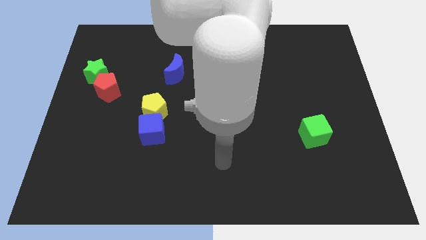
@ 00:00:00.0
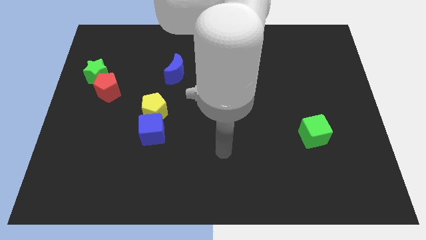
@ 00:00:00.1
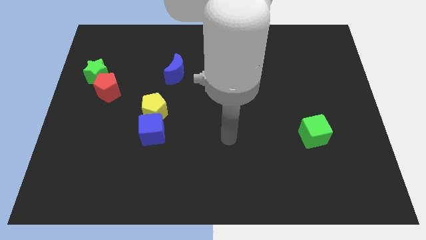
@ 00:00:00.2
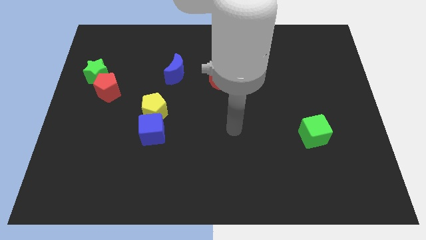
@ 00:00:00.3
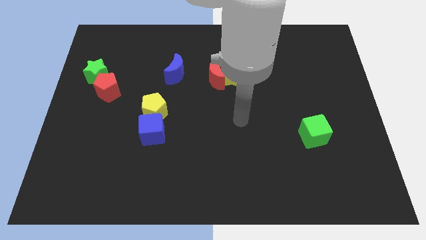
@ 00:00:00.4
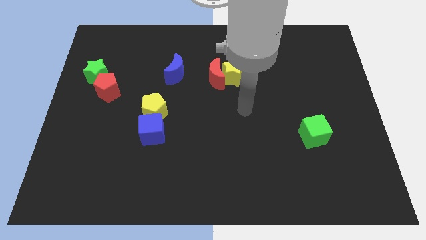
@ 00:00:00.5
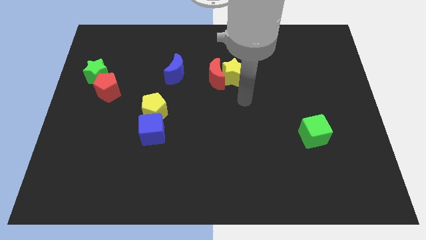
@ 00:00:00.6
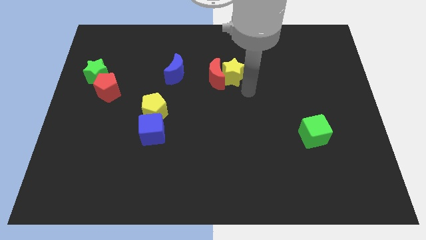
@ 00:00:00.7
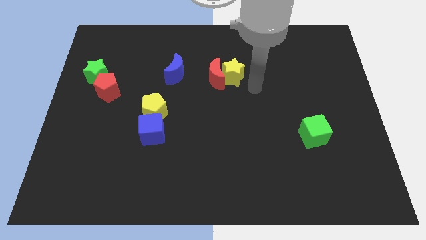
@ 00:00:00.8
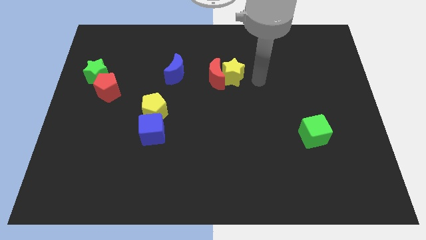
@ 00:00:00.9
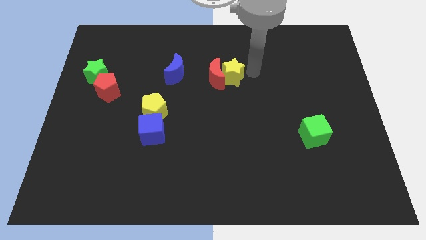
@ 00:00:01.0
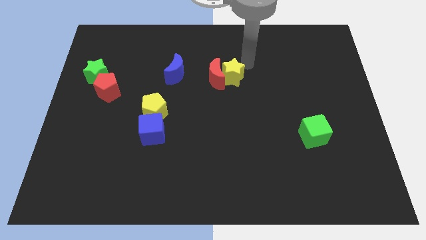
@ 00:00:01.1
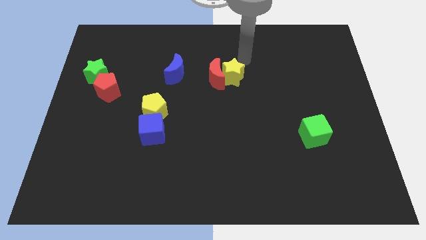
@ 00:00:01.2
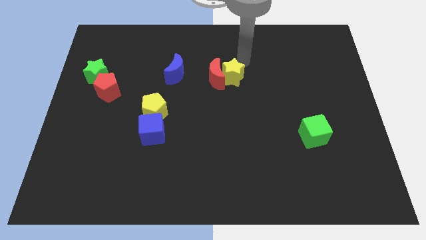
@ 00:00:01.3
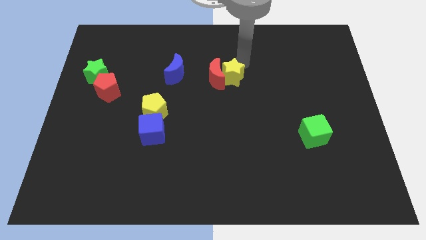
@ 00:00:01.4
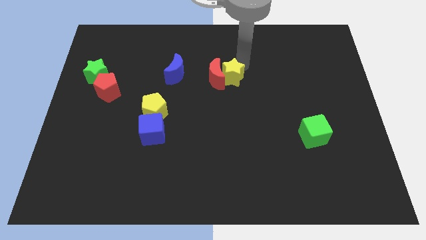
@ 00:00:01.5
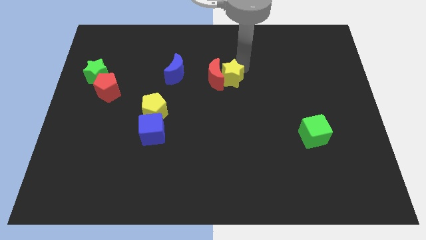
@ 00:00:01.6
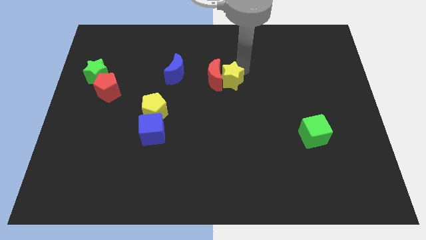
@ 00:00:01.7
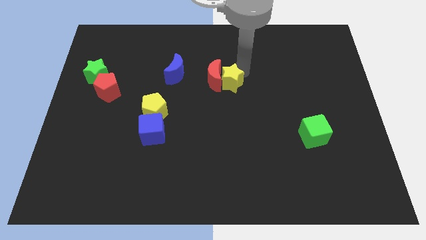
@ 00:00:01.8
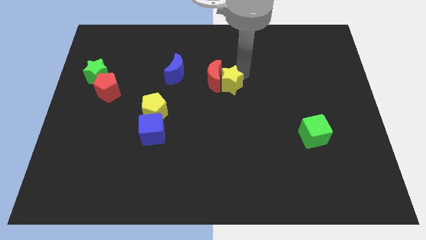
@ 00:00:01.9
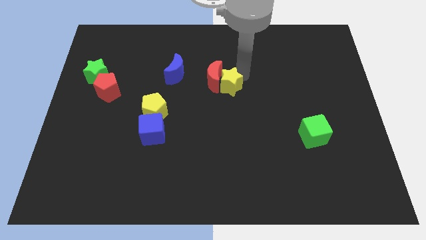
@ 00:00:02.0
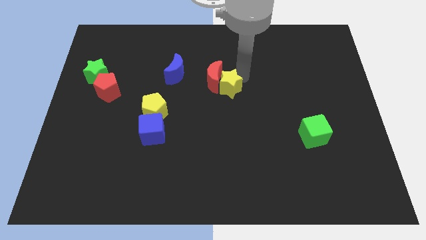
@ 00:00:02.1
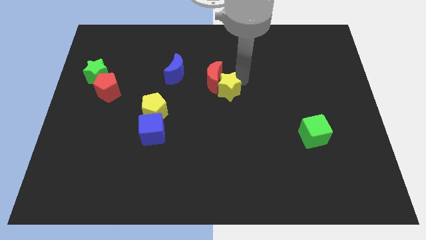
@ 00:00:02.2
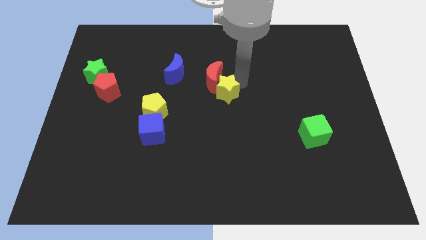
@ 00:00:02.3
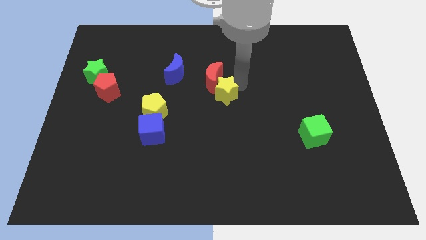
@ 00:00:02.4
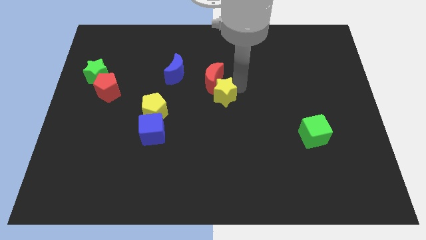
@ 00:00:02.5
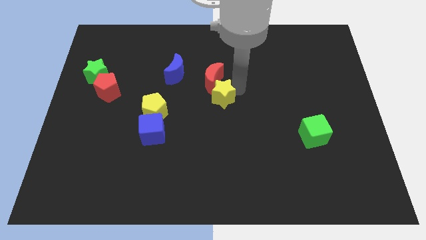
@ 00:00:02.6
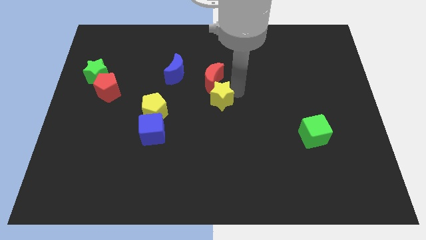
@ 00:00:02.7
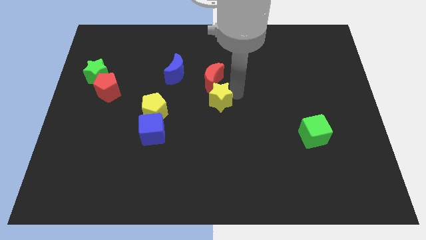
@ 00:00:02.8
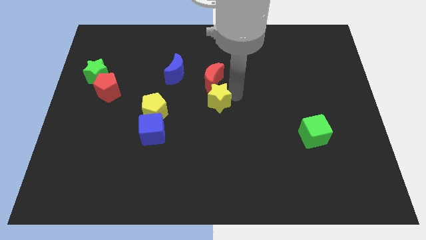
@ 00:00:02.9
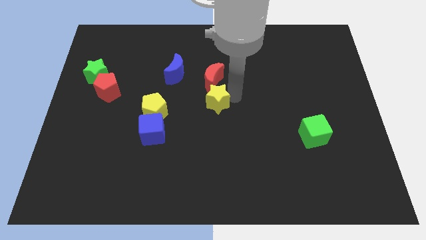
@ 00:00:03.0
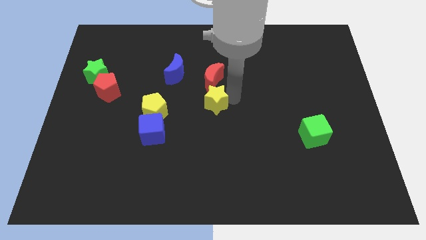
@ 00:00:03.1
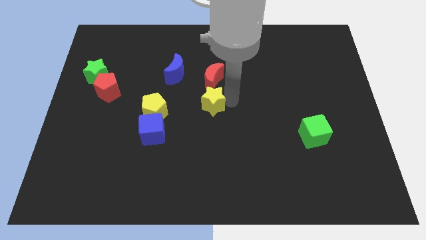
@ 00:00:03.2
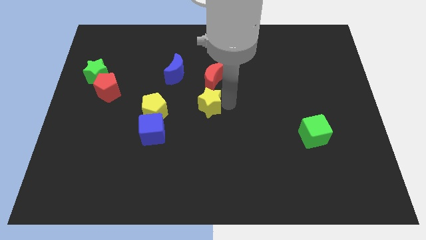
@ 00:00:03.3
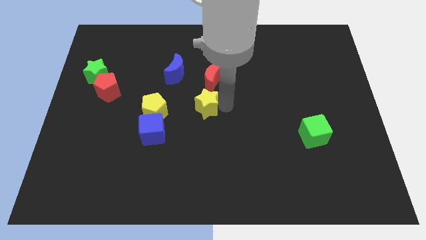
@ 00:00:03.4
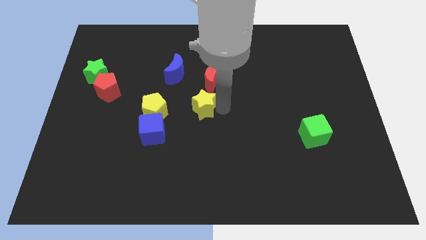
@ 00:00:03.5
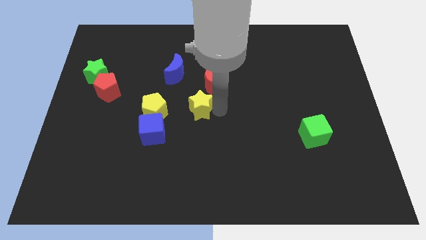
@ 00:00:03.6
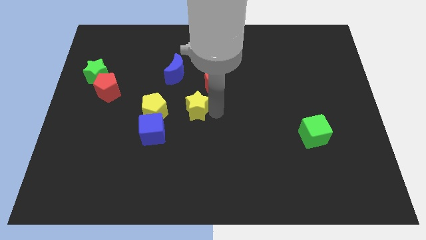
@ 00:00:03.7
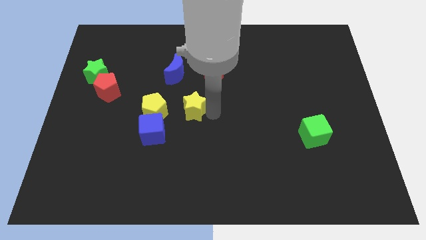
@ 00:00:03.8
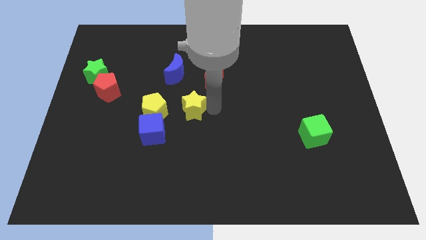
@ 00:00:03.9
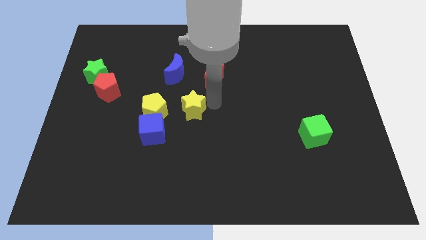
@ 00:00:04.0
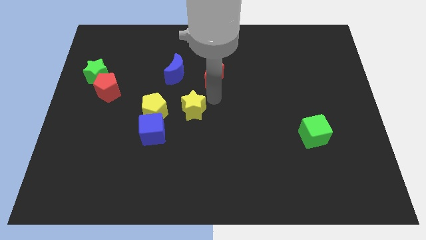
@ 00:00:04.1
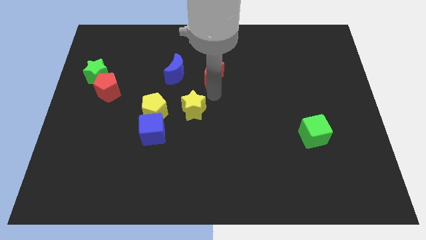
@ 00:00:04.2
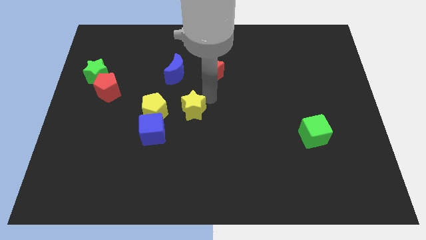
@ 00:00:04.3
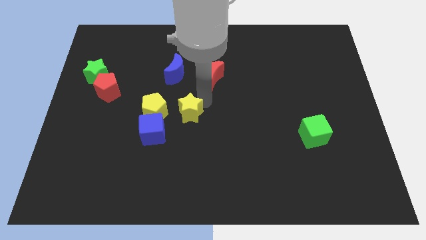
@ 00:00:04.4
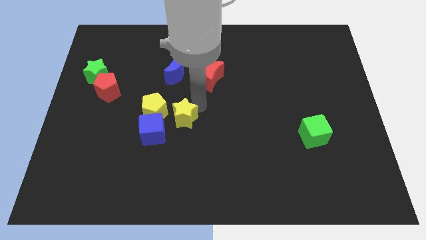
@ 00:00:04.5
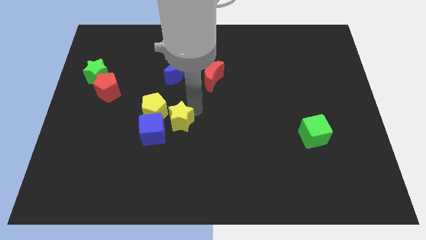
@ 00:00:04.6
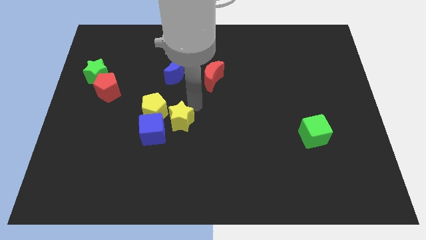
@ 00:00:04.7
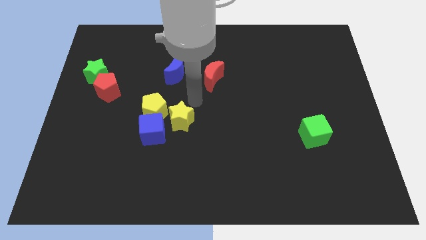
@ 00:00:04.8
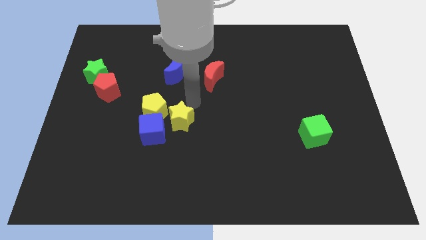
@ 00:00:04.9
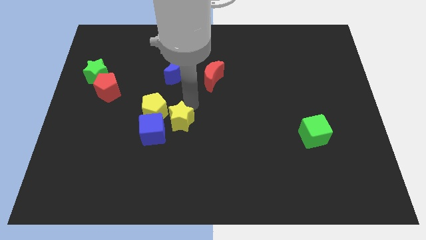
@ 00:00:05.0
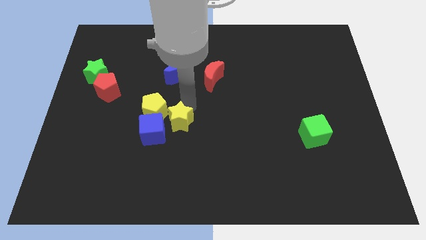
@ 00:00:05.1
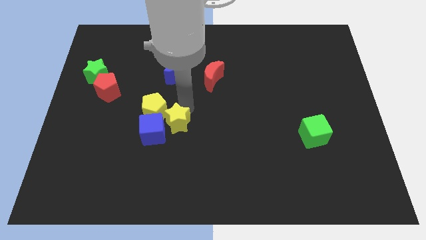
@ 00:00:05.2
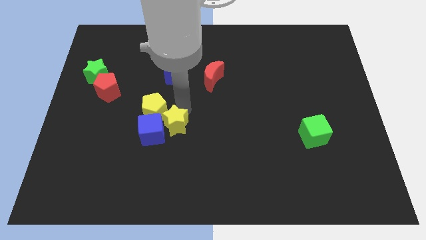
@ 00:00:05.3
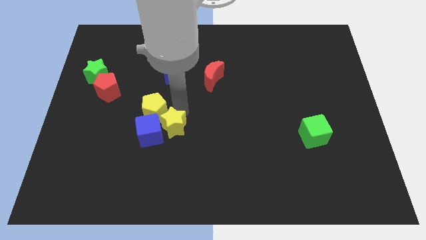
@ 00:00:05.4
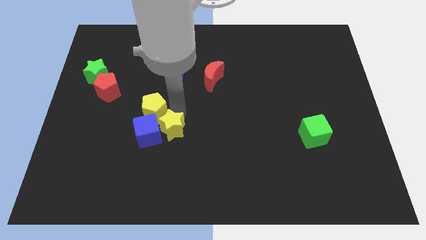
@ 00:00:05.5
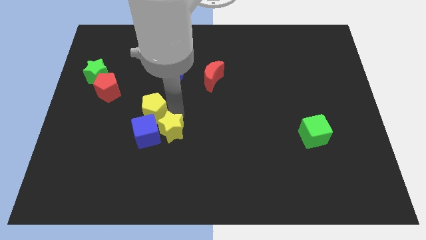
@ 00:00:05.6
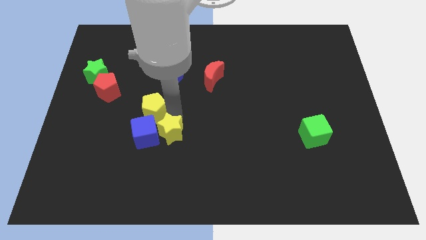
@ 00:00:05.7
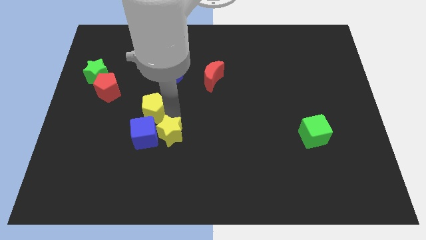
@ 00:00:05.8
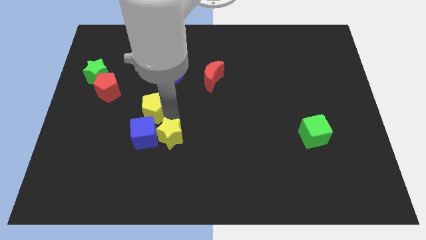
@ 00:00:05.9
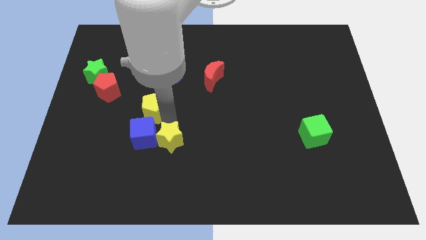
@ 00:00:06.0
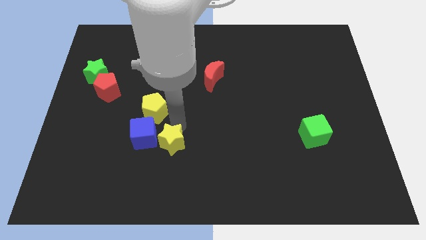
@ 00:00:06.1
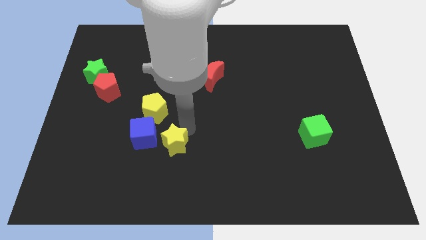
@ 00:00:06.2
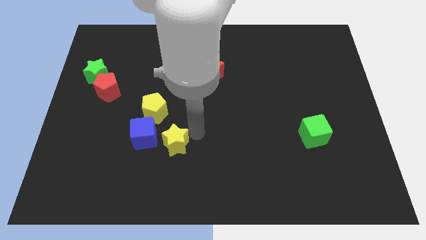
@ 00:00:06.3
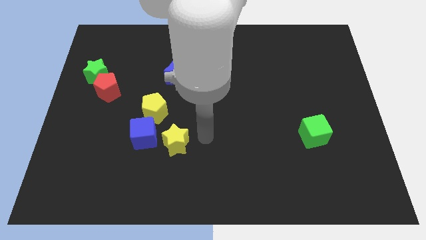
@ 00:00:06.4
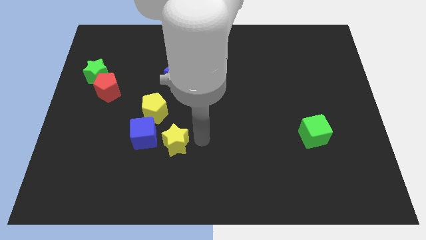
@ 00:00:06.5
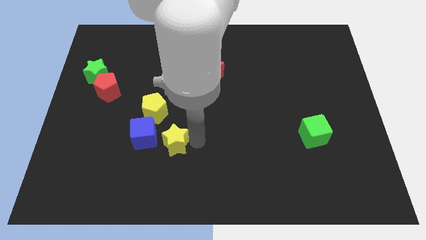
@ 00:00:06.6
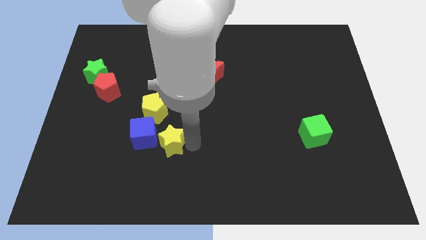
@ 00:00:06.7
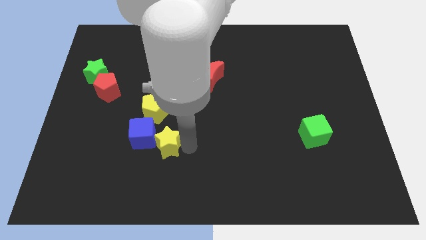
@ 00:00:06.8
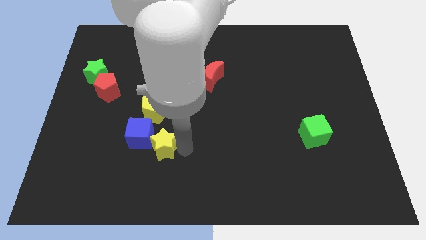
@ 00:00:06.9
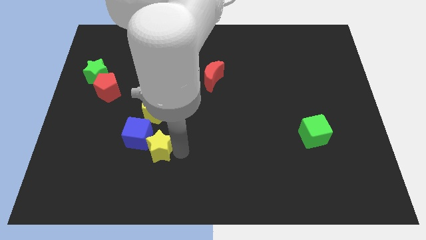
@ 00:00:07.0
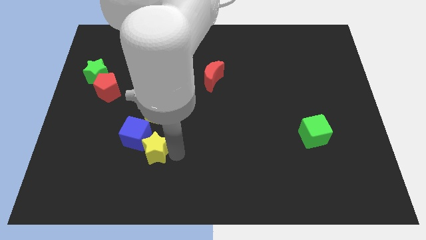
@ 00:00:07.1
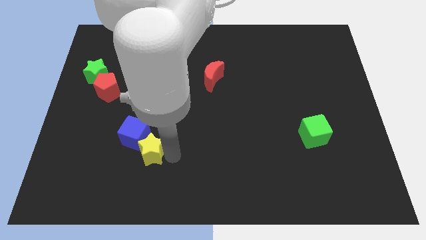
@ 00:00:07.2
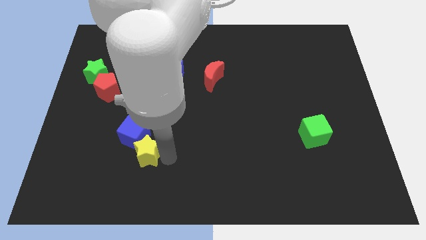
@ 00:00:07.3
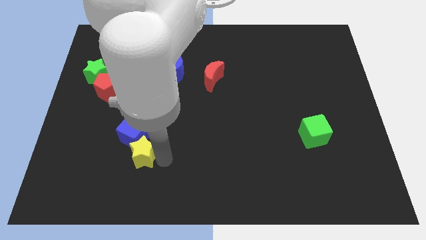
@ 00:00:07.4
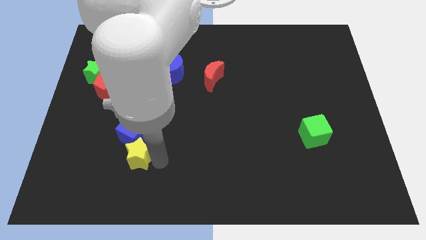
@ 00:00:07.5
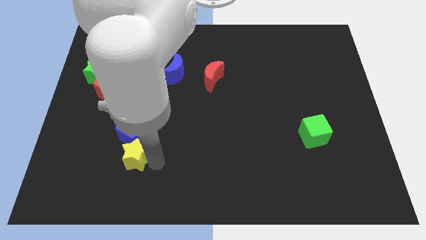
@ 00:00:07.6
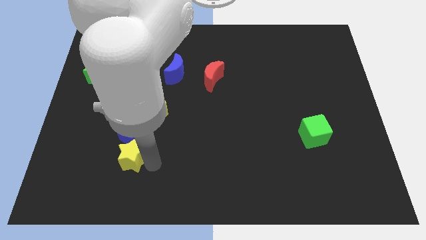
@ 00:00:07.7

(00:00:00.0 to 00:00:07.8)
move the yellow star to the bottom left of the blue cube
